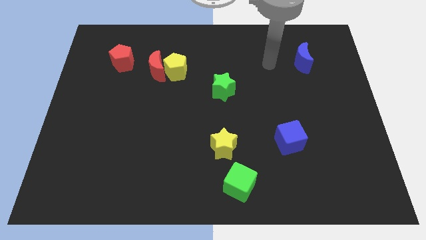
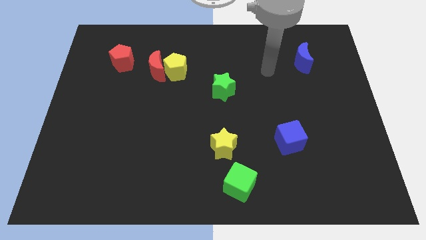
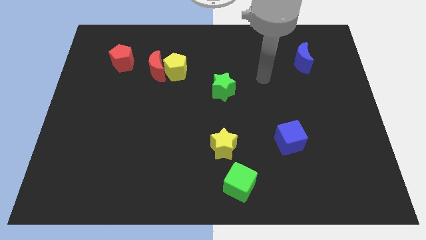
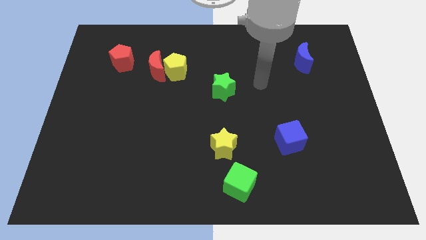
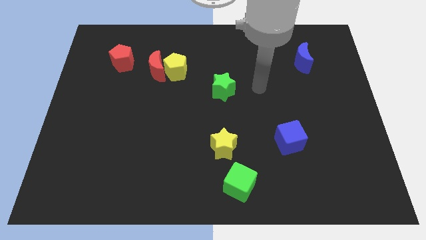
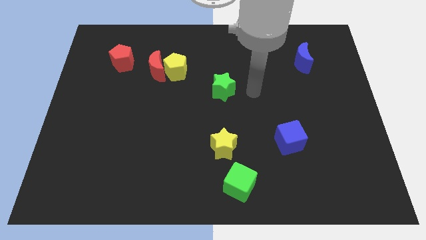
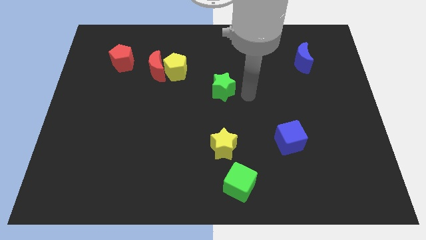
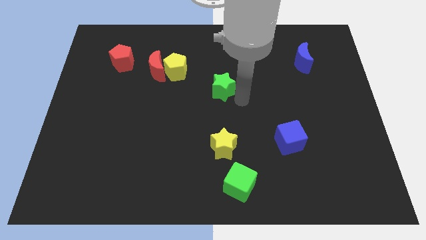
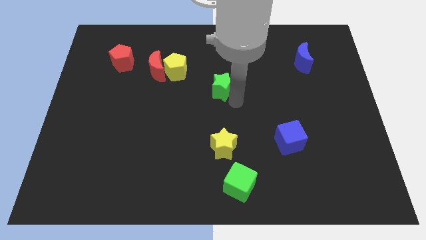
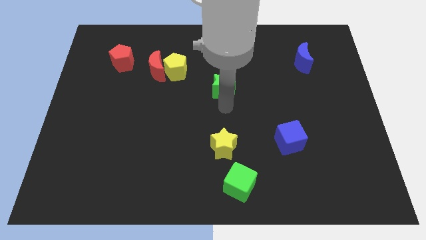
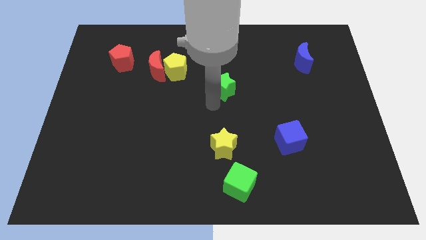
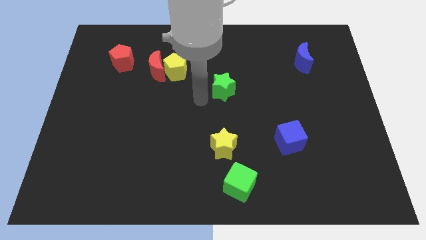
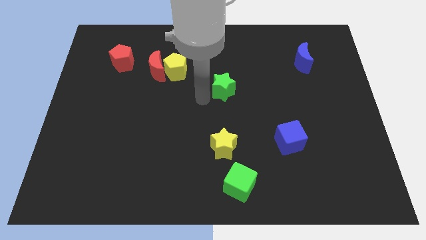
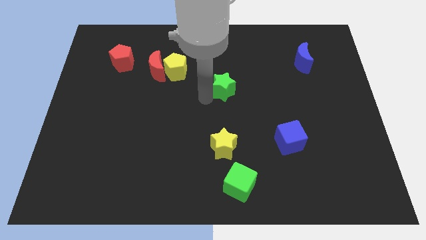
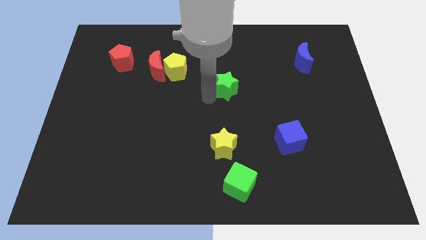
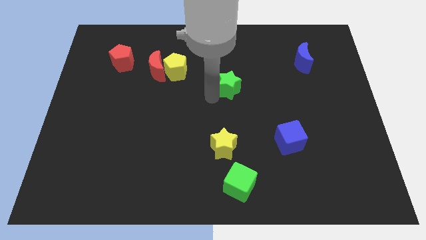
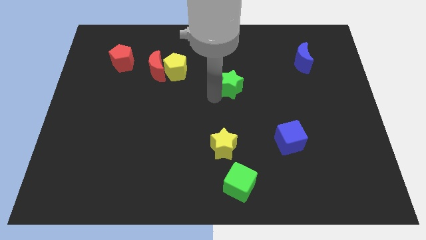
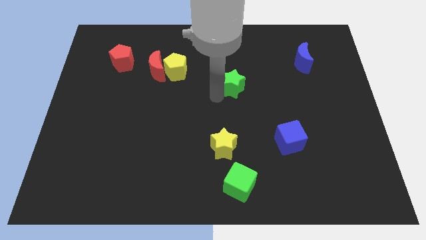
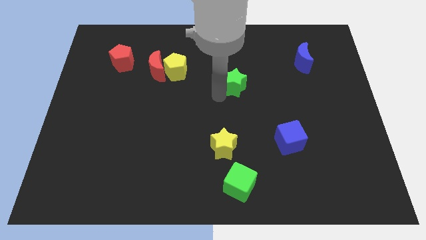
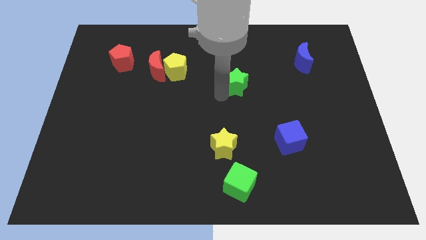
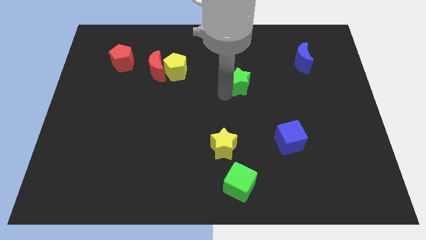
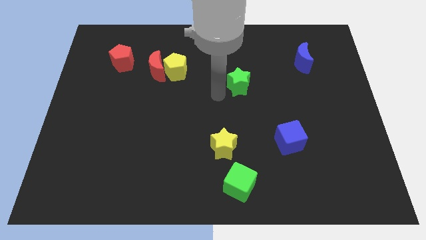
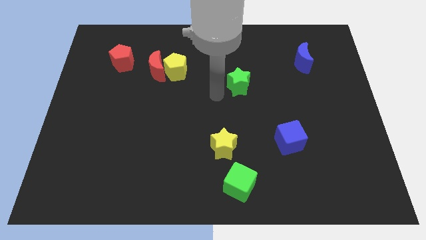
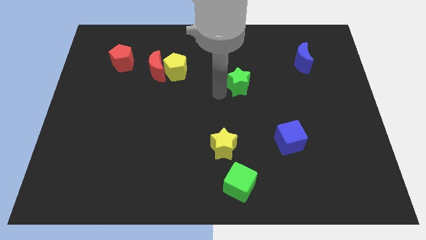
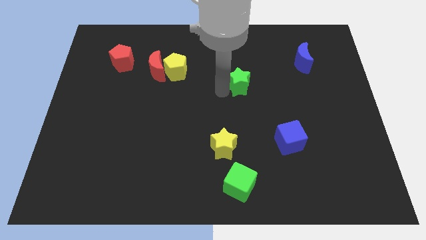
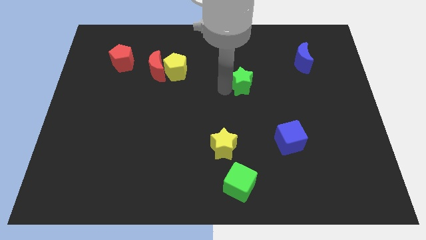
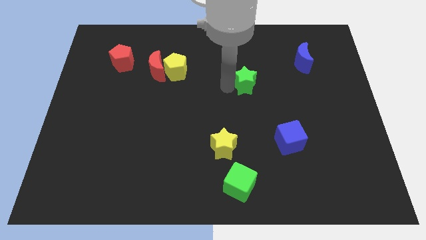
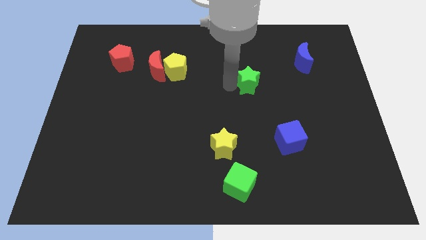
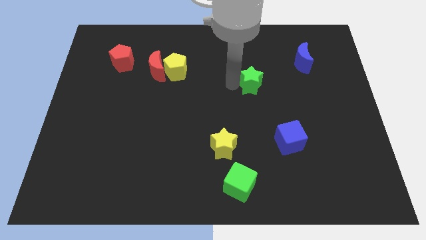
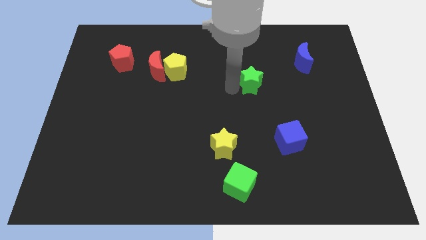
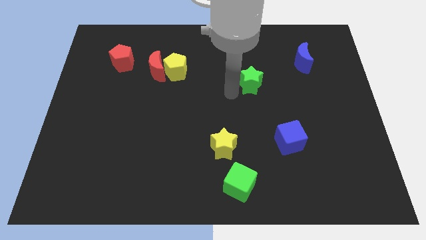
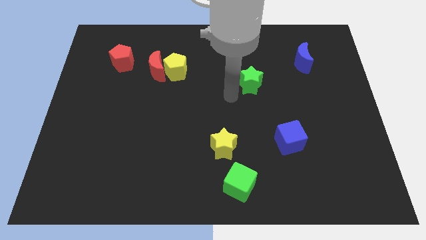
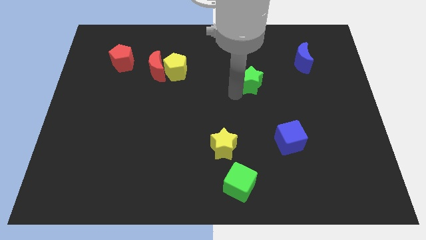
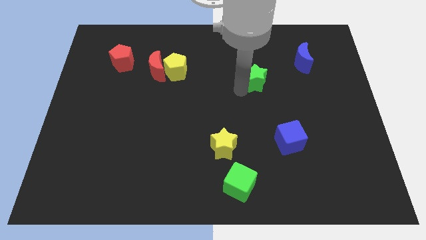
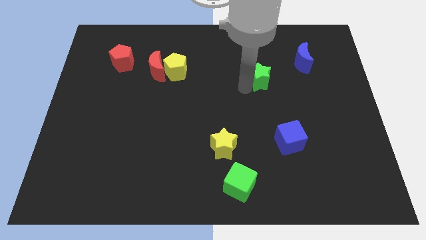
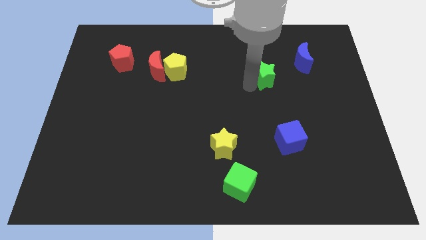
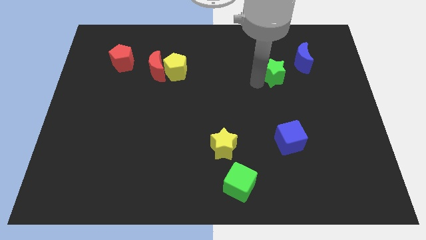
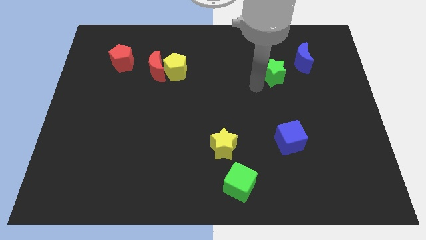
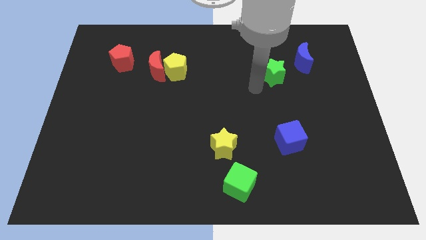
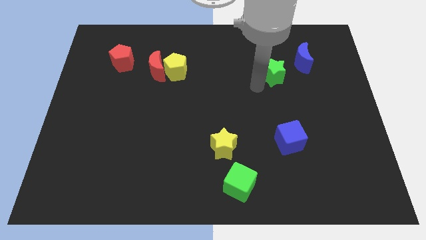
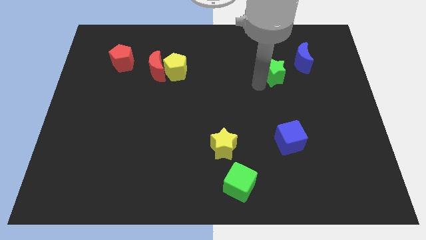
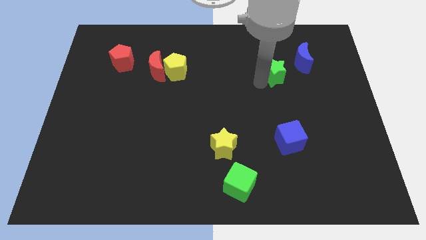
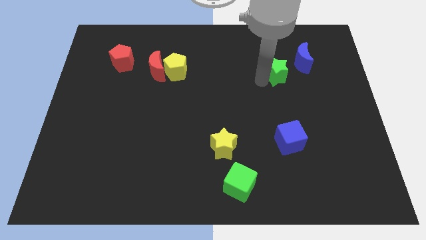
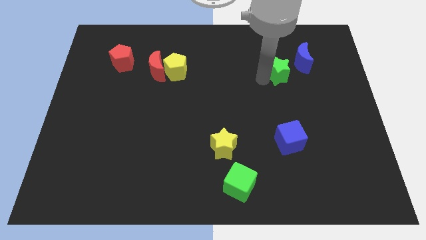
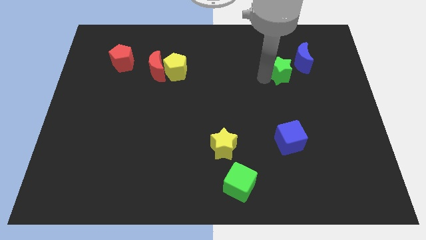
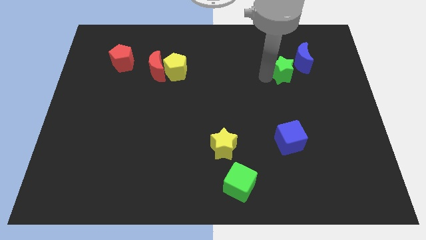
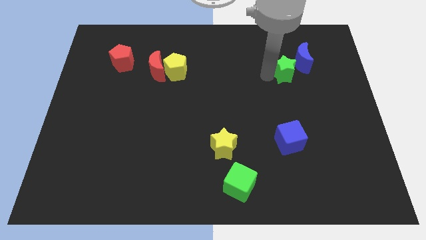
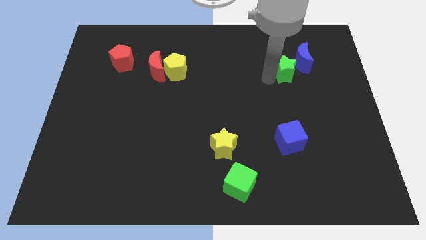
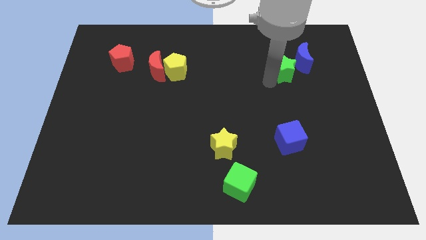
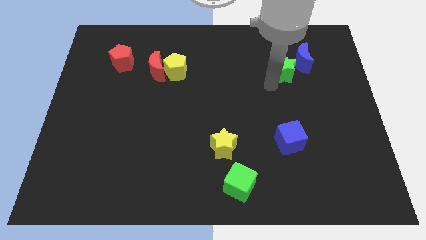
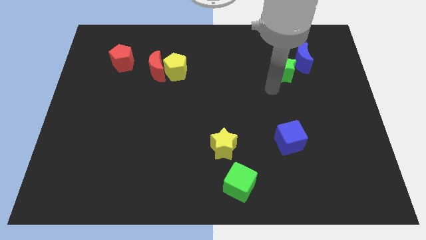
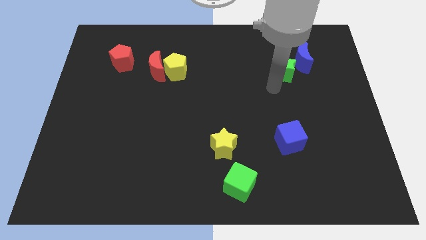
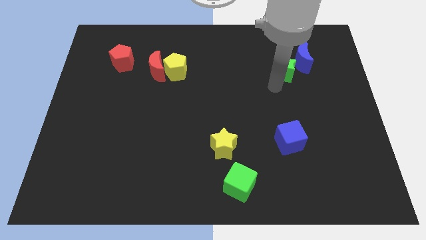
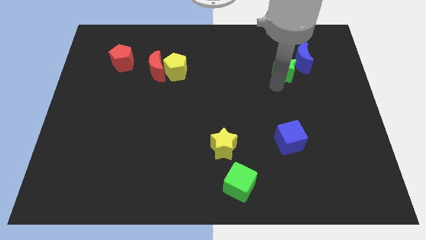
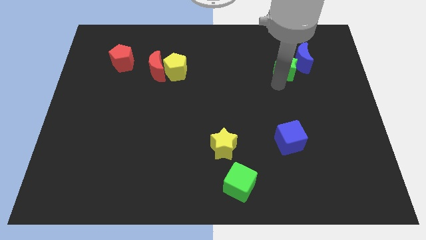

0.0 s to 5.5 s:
slide the green star towards the blue moon

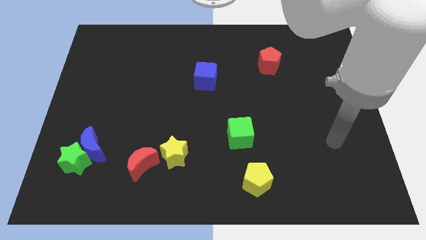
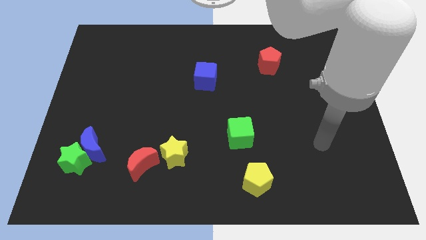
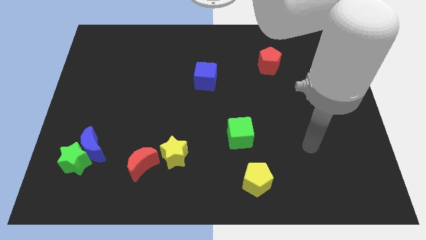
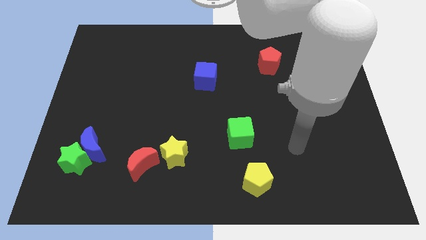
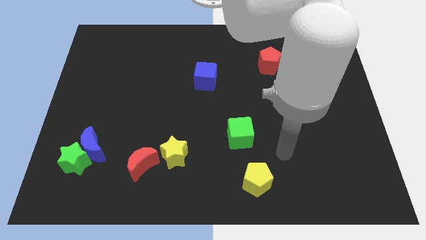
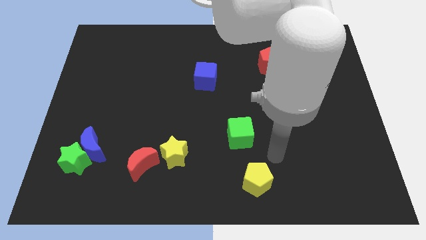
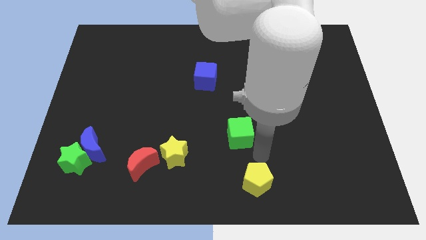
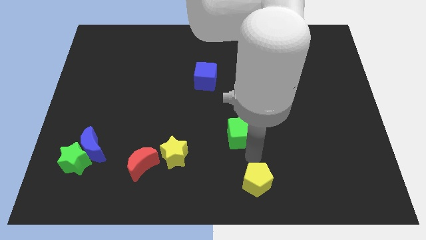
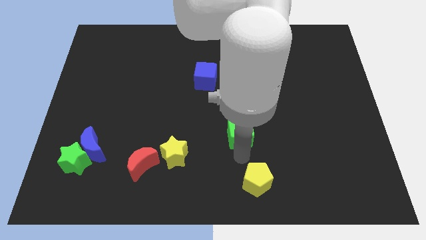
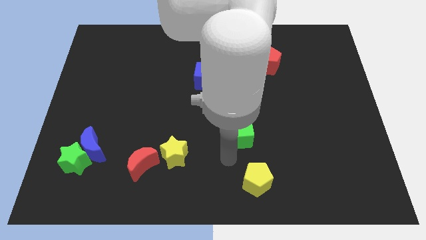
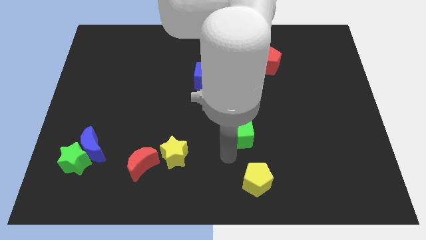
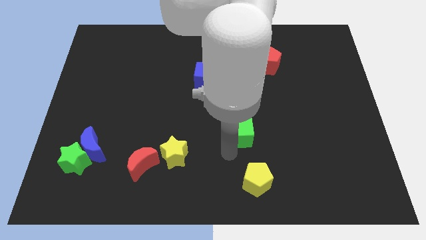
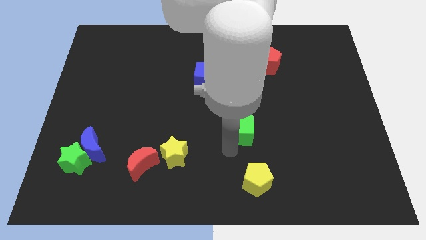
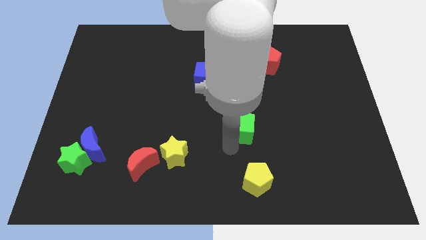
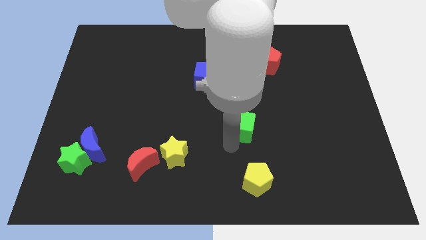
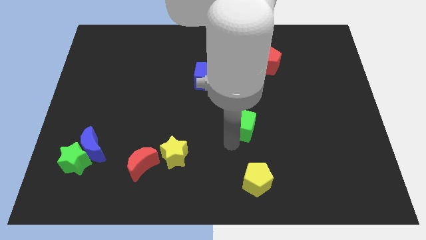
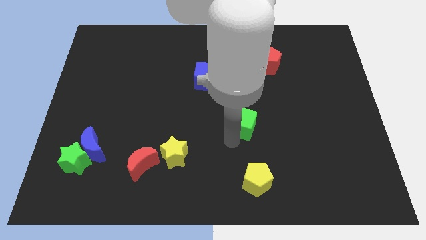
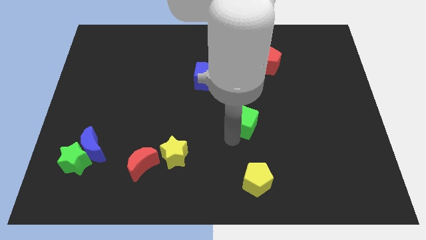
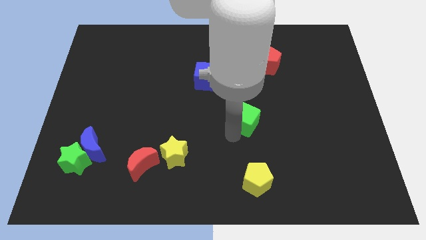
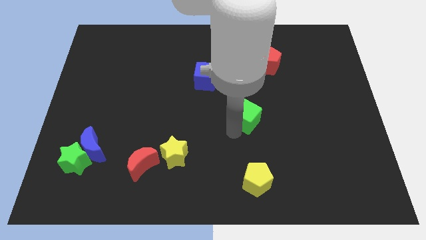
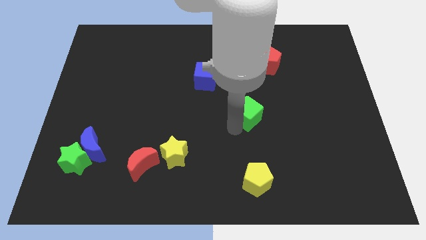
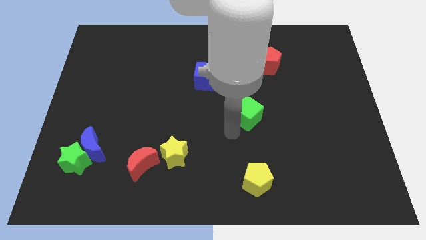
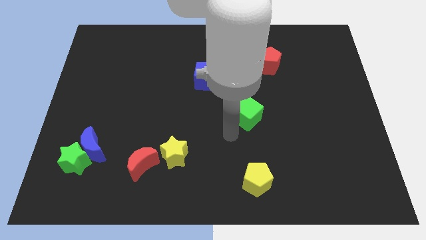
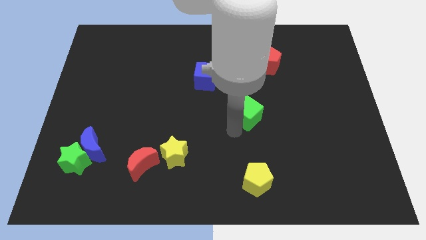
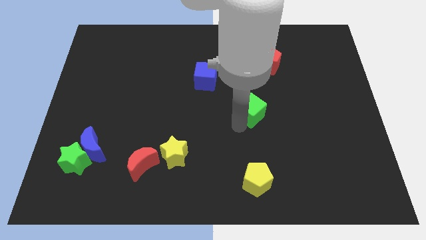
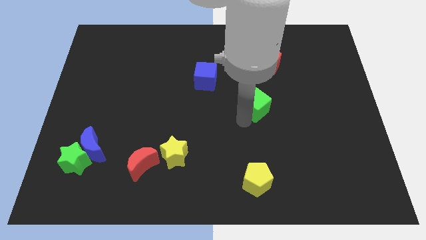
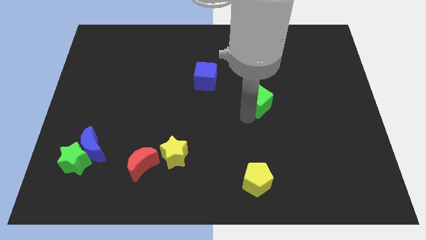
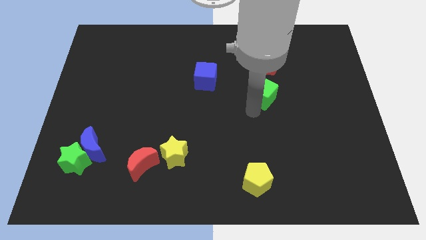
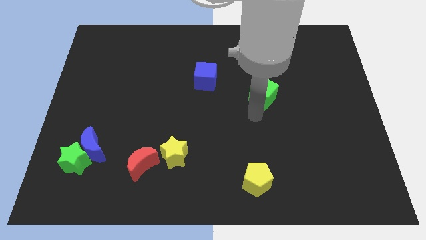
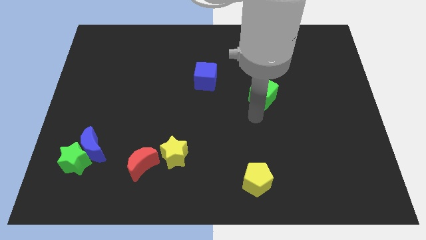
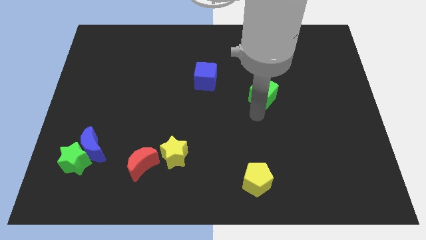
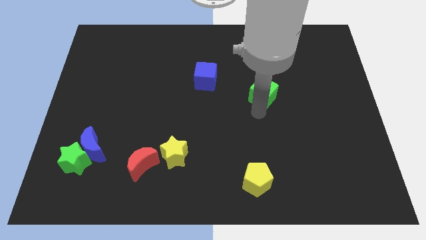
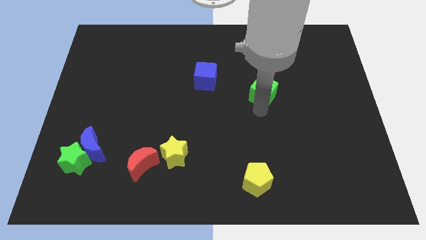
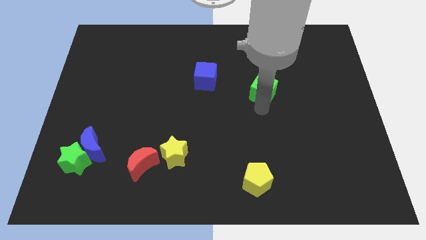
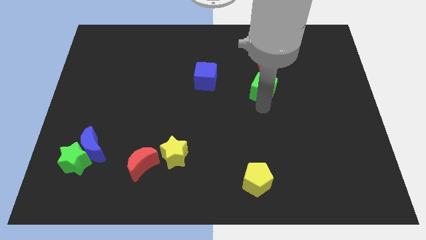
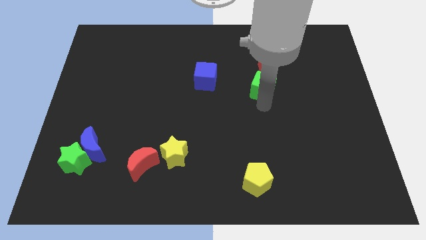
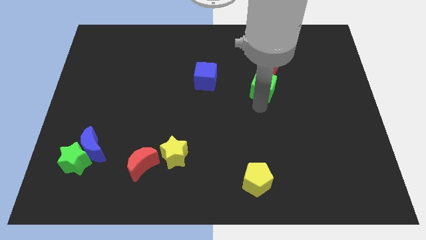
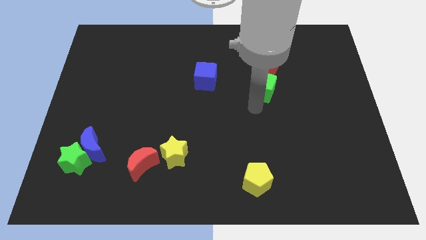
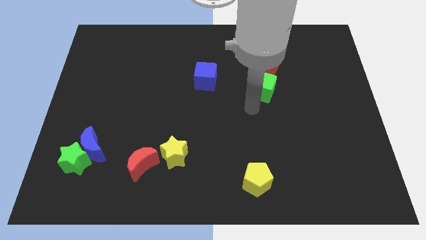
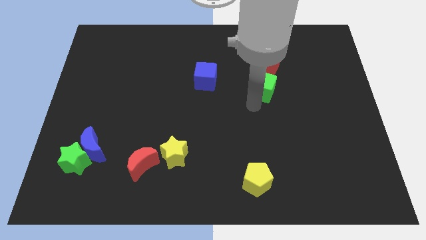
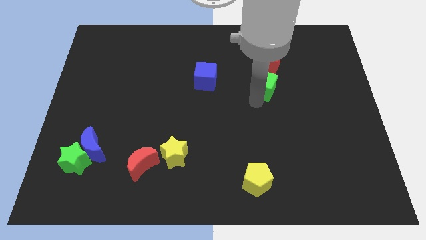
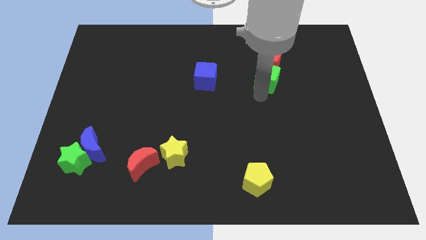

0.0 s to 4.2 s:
put the green cube close to the red pentagon
